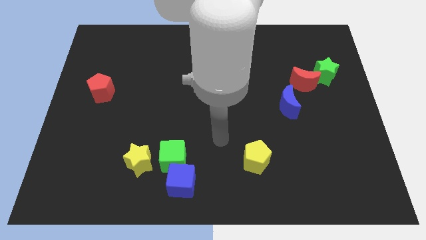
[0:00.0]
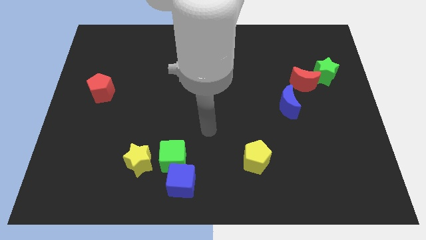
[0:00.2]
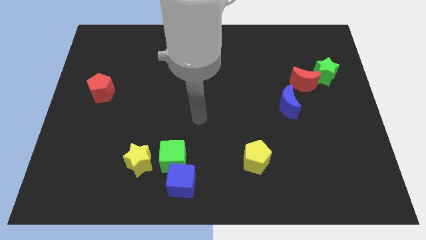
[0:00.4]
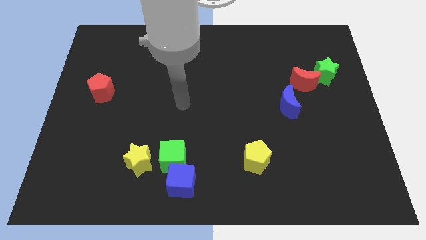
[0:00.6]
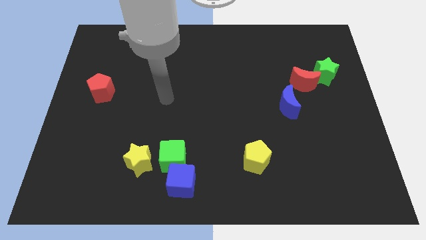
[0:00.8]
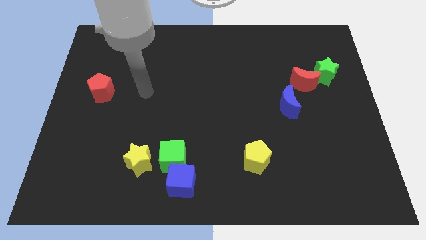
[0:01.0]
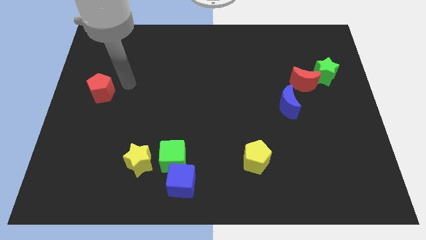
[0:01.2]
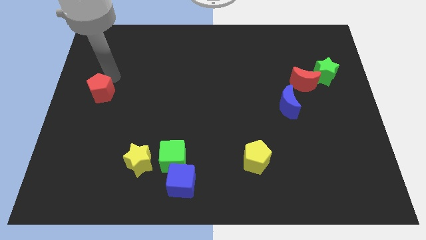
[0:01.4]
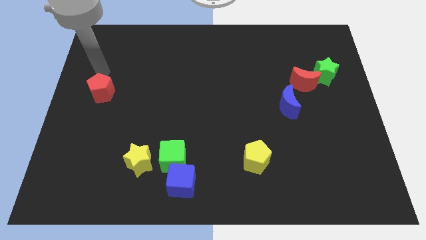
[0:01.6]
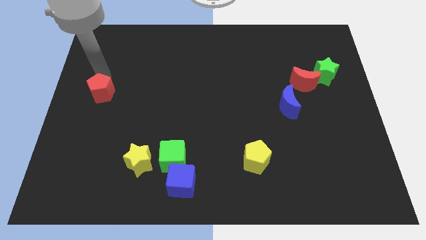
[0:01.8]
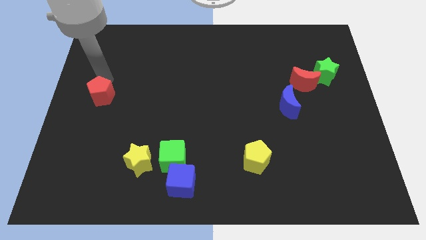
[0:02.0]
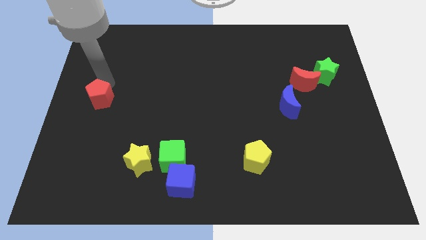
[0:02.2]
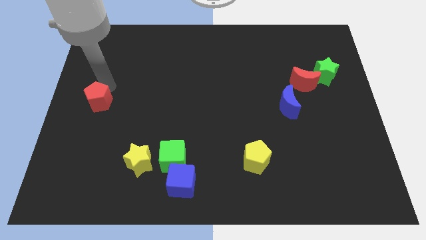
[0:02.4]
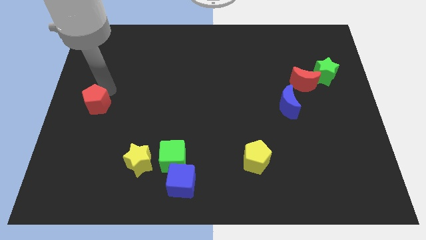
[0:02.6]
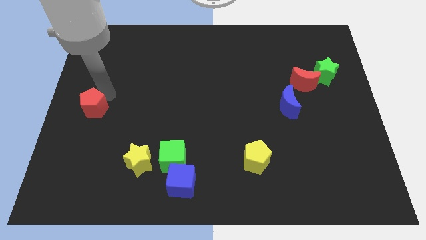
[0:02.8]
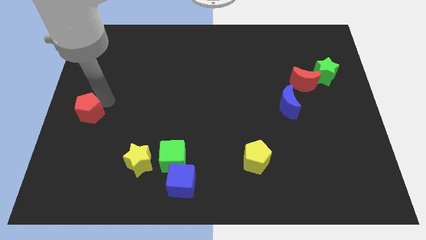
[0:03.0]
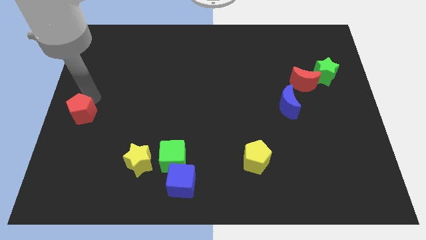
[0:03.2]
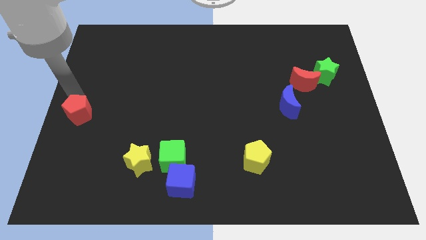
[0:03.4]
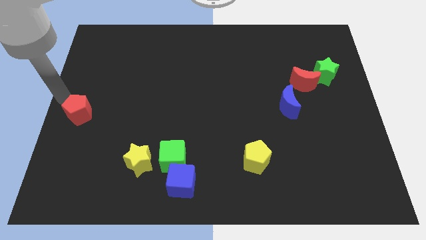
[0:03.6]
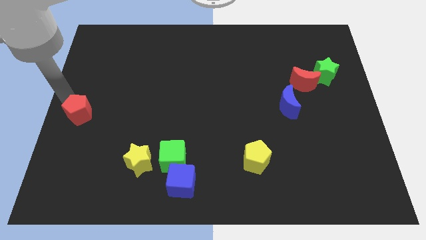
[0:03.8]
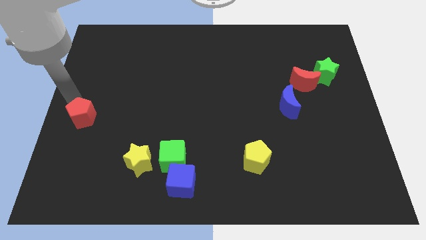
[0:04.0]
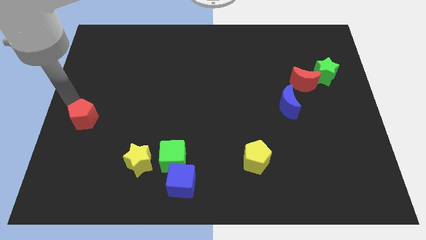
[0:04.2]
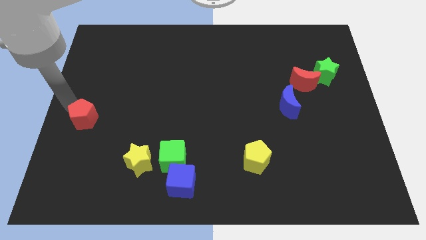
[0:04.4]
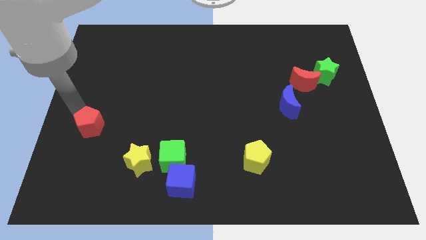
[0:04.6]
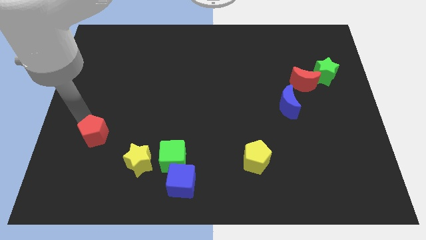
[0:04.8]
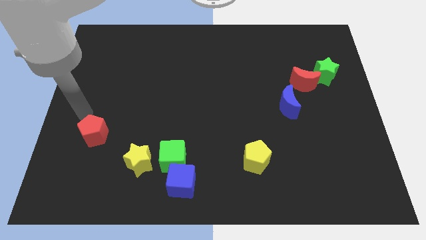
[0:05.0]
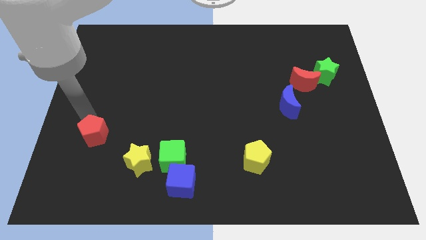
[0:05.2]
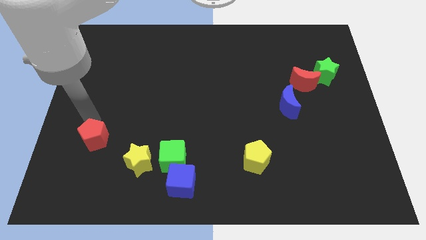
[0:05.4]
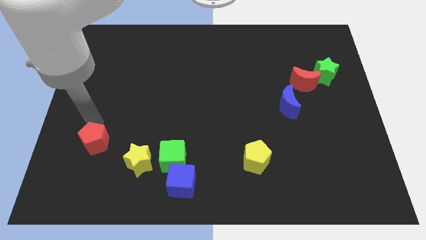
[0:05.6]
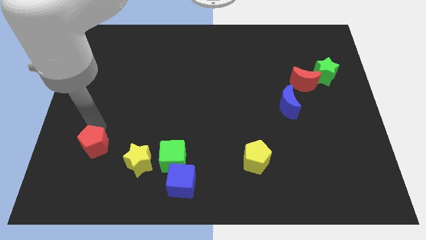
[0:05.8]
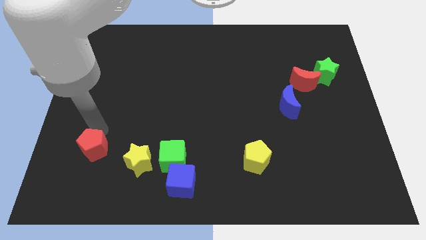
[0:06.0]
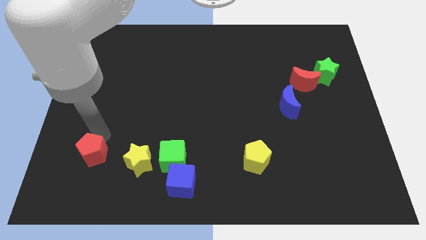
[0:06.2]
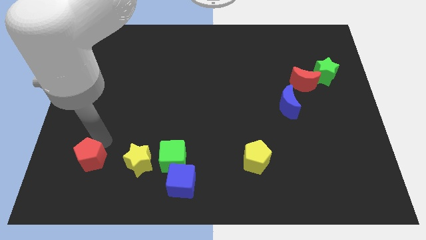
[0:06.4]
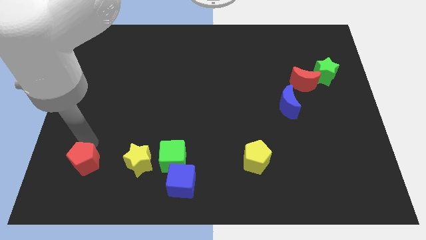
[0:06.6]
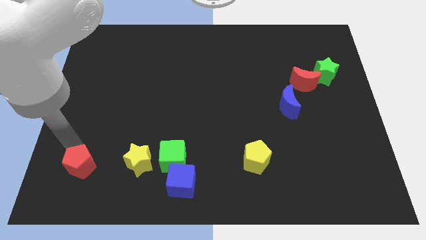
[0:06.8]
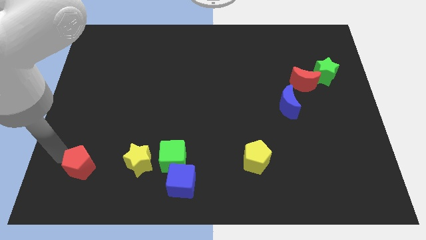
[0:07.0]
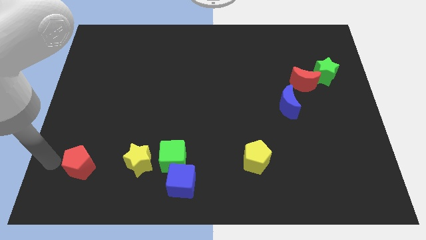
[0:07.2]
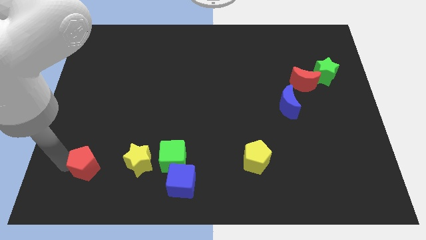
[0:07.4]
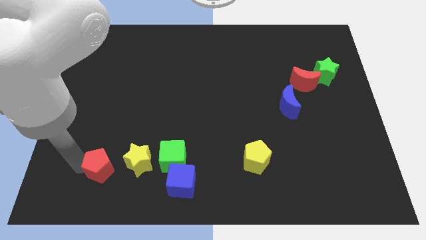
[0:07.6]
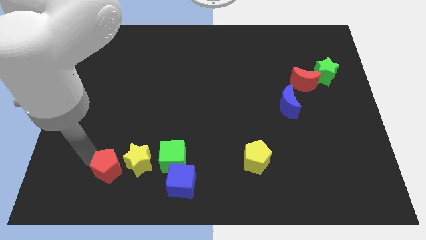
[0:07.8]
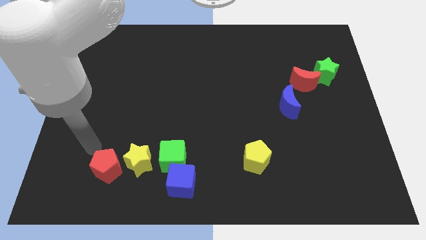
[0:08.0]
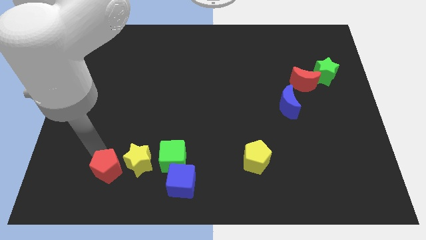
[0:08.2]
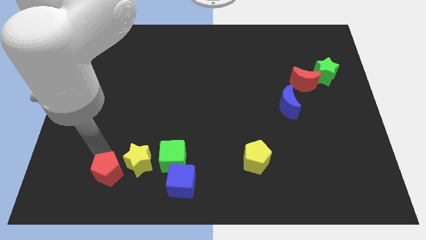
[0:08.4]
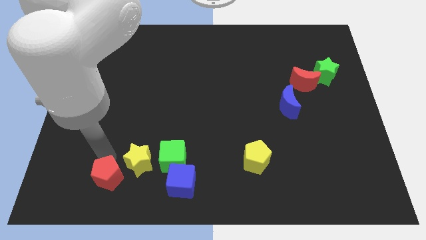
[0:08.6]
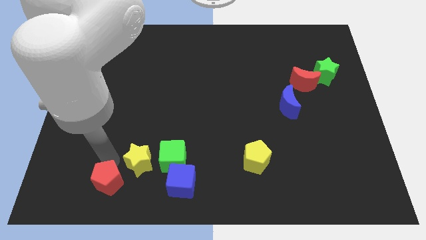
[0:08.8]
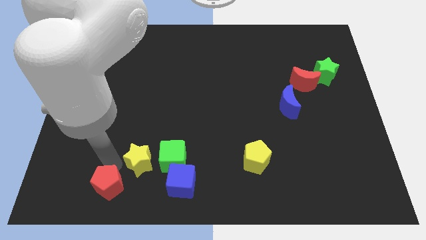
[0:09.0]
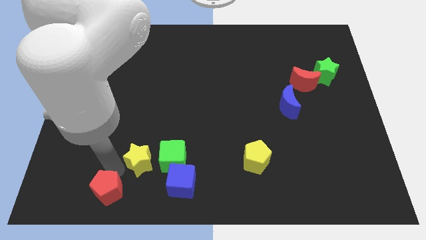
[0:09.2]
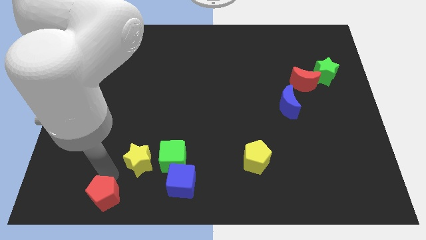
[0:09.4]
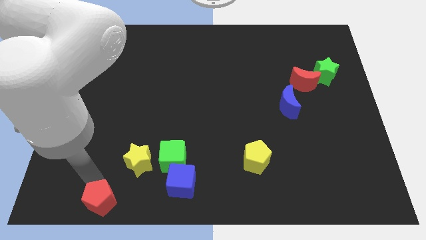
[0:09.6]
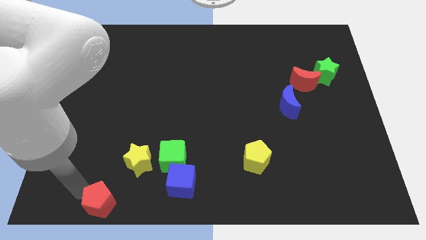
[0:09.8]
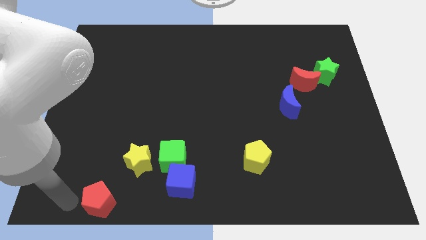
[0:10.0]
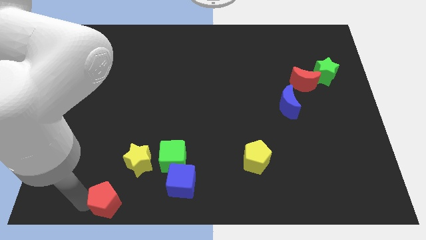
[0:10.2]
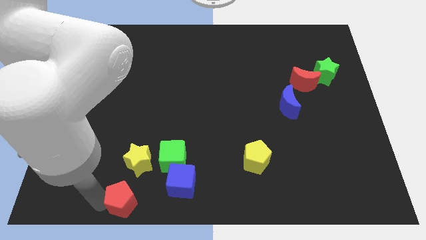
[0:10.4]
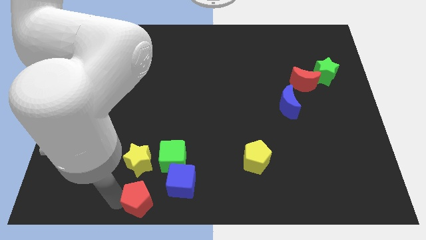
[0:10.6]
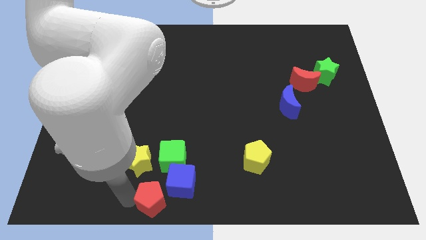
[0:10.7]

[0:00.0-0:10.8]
push the red pentagon to the bottom

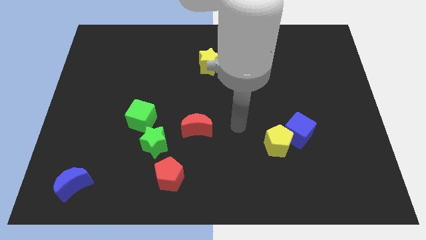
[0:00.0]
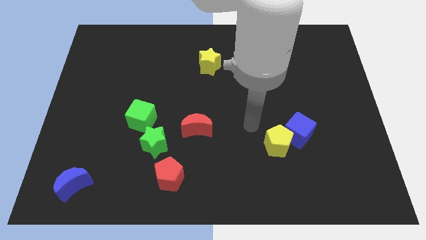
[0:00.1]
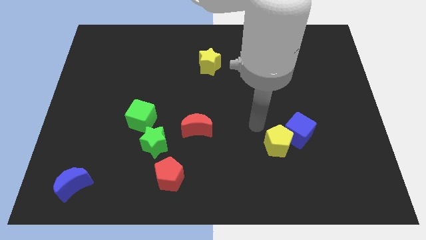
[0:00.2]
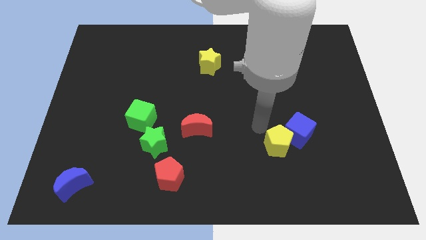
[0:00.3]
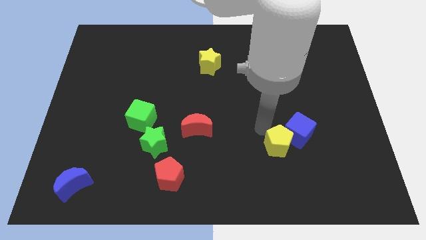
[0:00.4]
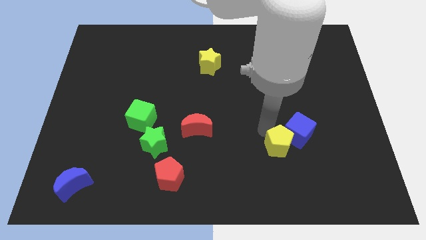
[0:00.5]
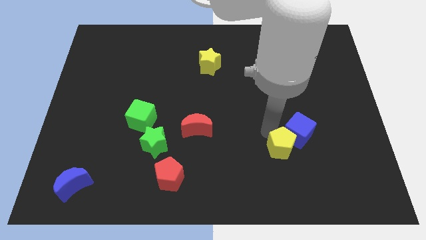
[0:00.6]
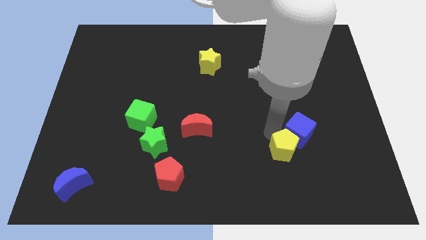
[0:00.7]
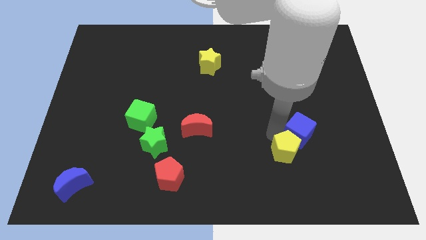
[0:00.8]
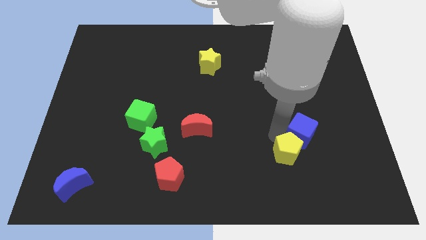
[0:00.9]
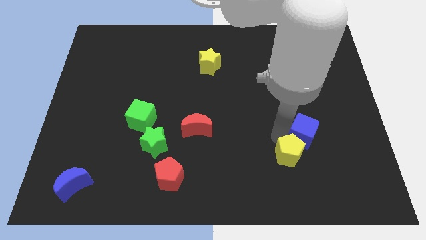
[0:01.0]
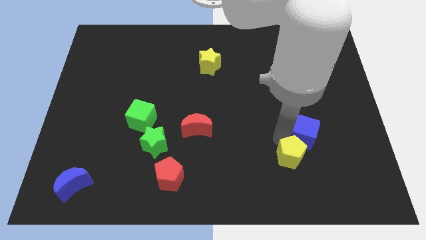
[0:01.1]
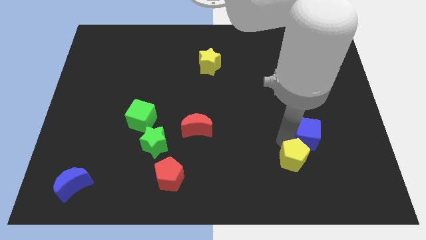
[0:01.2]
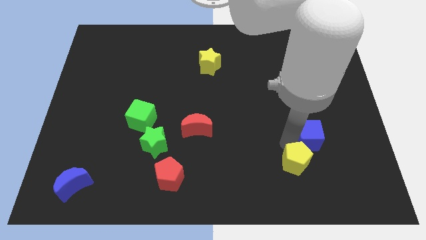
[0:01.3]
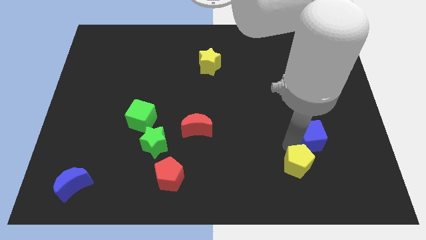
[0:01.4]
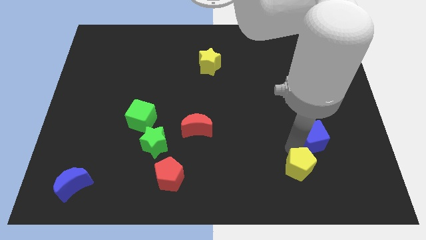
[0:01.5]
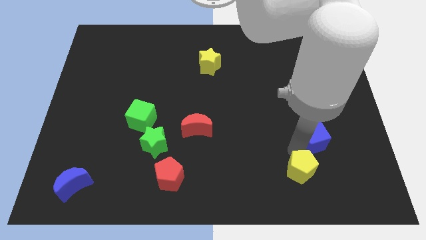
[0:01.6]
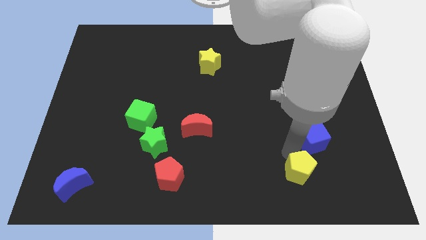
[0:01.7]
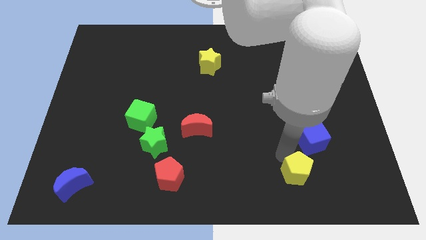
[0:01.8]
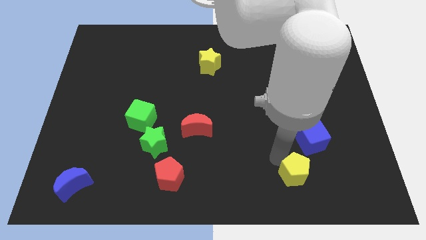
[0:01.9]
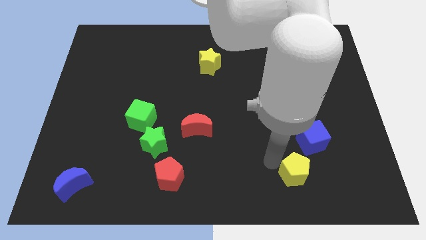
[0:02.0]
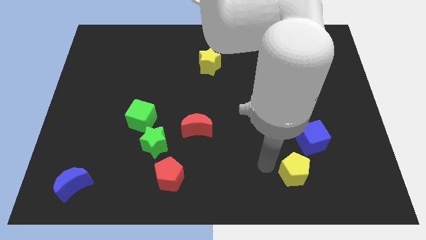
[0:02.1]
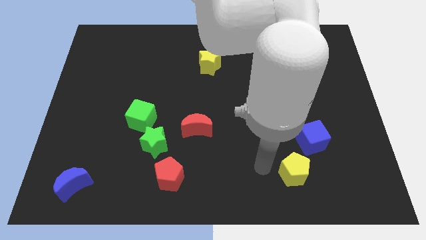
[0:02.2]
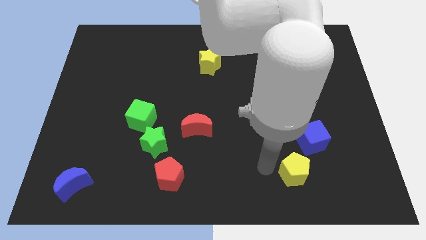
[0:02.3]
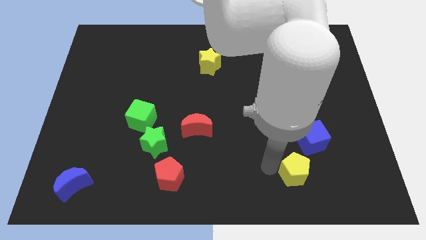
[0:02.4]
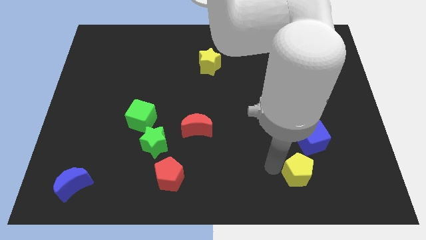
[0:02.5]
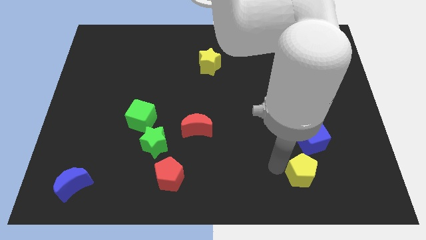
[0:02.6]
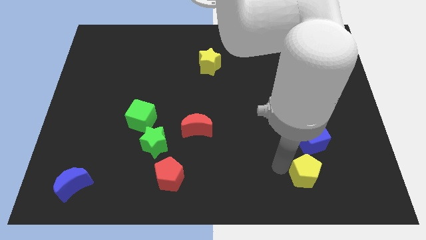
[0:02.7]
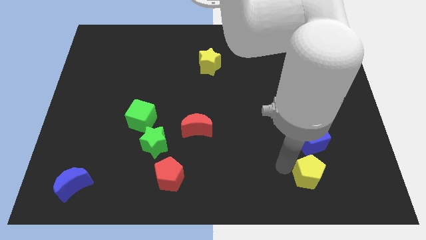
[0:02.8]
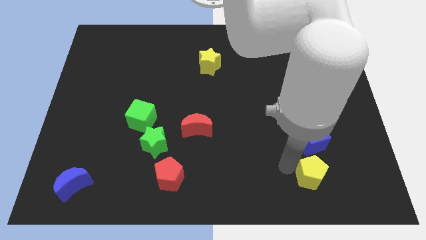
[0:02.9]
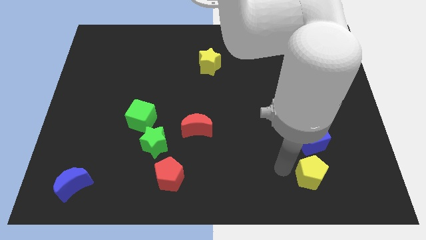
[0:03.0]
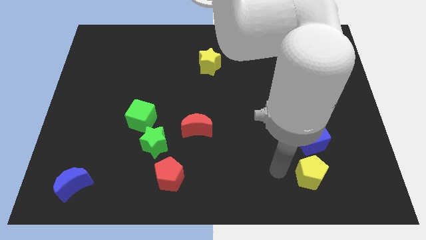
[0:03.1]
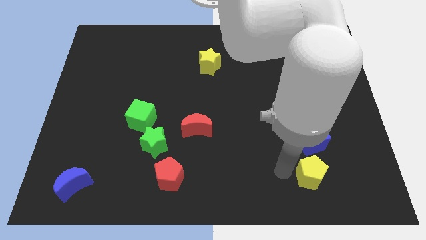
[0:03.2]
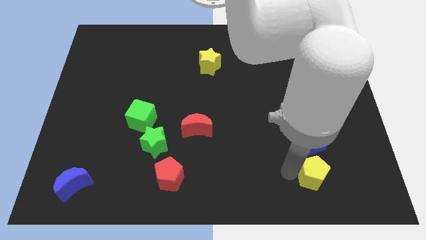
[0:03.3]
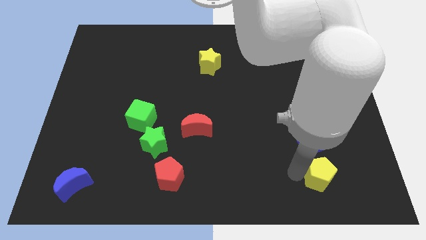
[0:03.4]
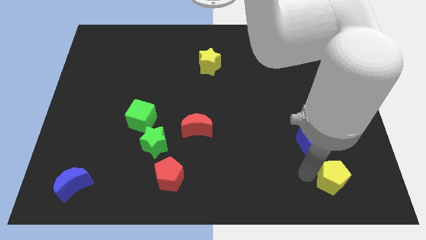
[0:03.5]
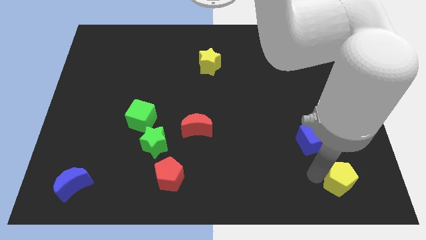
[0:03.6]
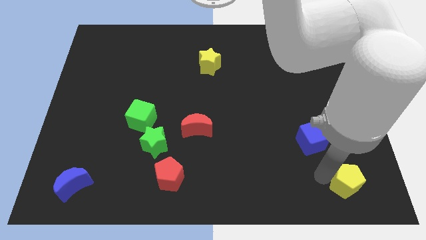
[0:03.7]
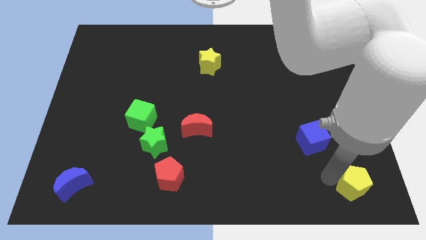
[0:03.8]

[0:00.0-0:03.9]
put the yellow pentagon to the bottom right
